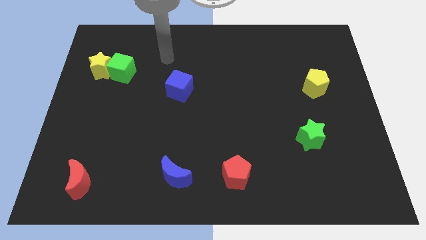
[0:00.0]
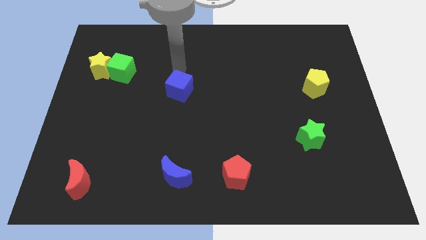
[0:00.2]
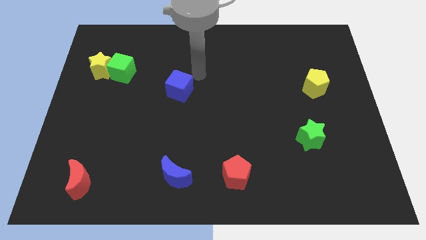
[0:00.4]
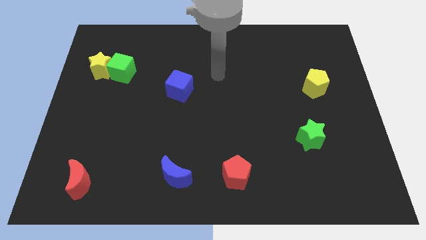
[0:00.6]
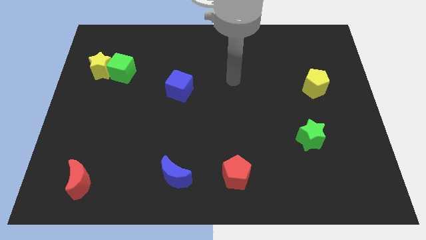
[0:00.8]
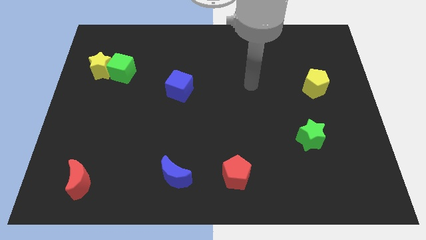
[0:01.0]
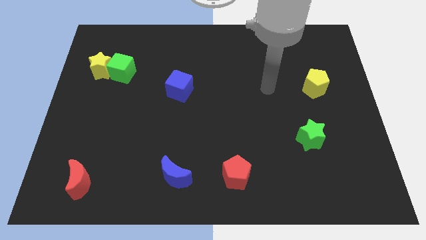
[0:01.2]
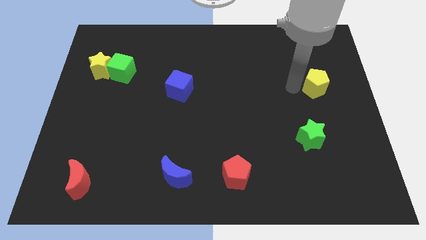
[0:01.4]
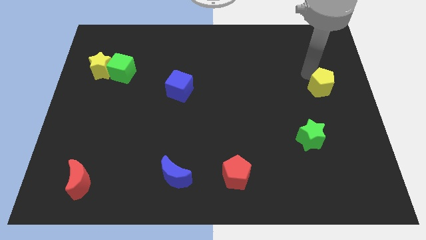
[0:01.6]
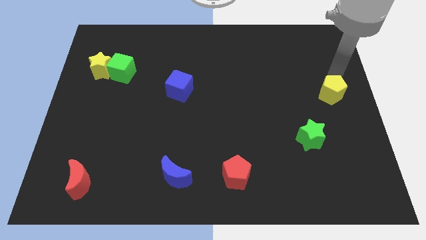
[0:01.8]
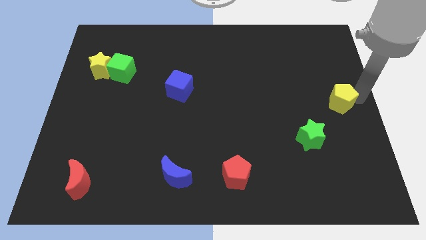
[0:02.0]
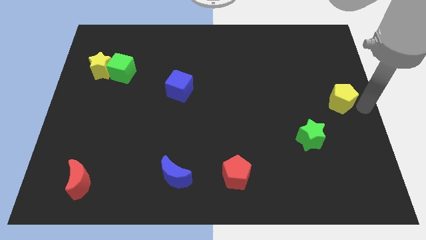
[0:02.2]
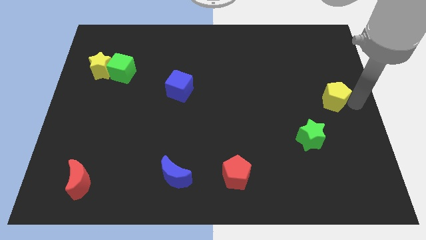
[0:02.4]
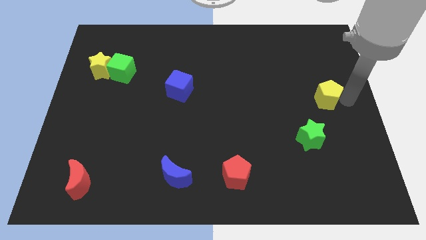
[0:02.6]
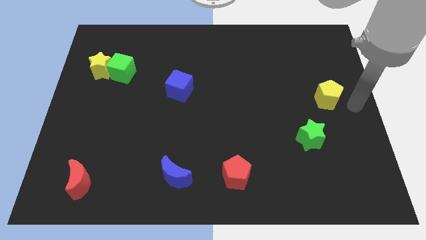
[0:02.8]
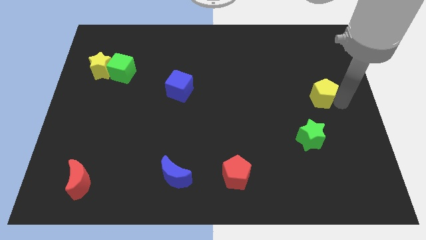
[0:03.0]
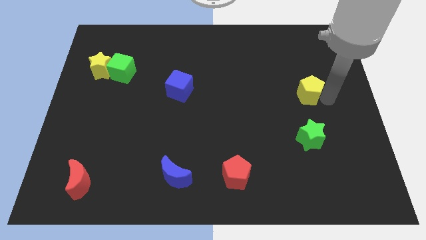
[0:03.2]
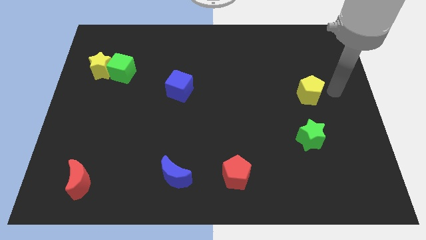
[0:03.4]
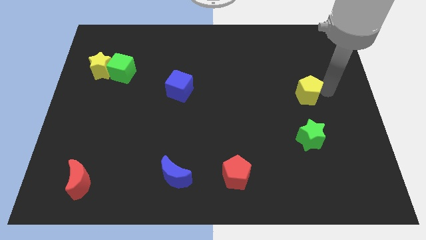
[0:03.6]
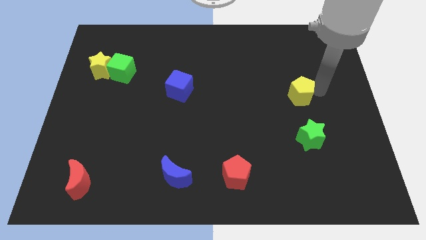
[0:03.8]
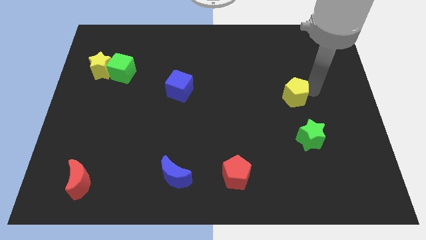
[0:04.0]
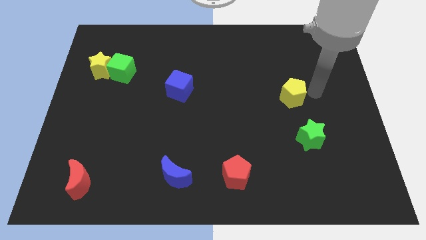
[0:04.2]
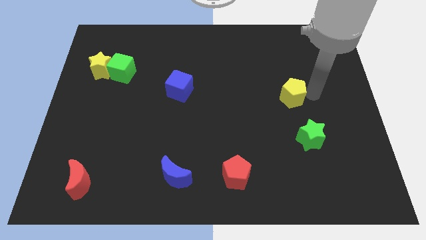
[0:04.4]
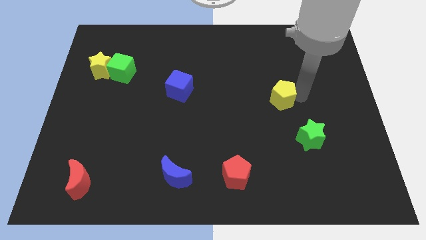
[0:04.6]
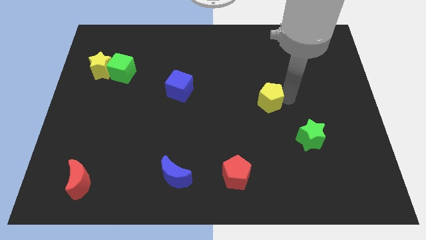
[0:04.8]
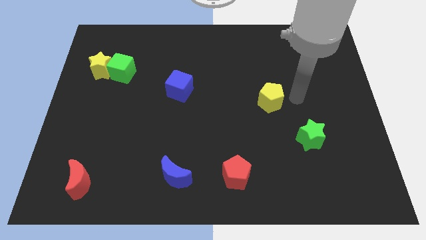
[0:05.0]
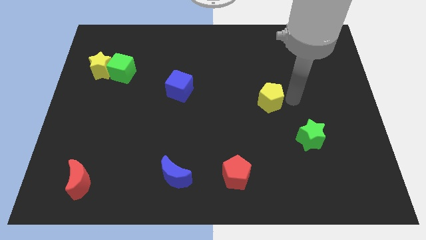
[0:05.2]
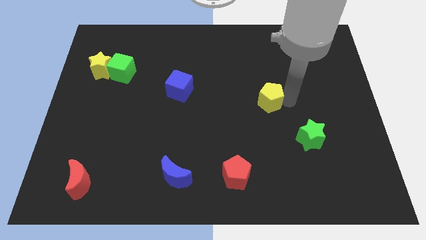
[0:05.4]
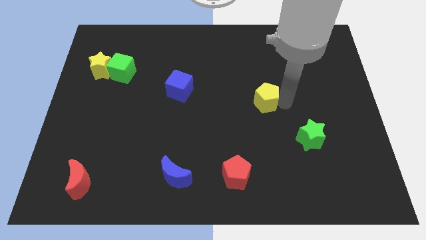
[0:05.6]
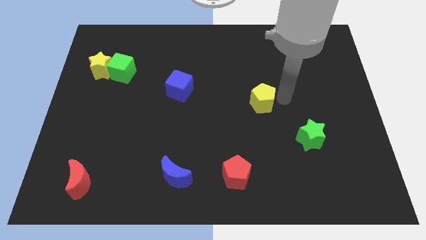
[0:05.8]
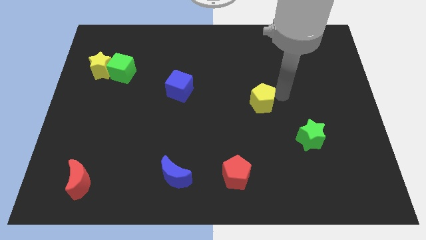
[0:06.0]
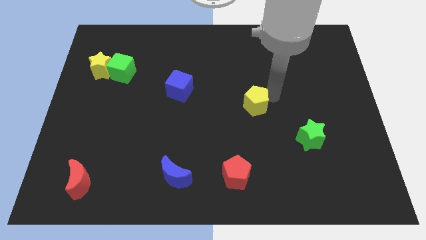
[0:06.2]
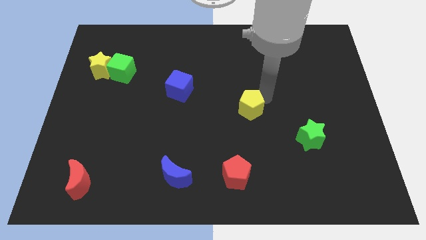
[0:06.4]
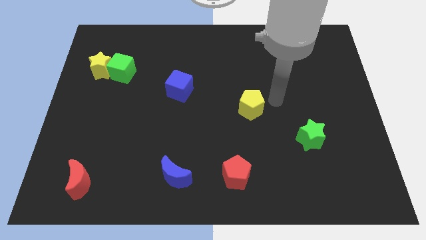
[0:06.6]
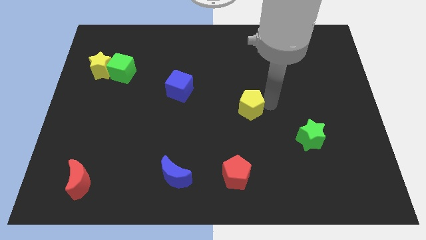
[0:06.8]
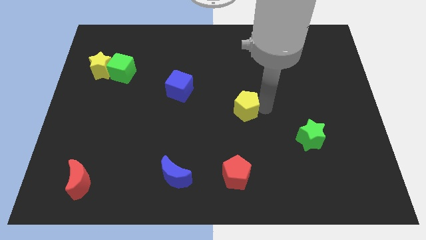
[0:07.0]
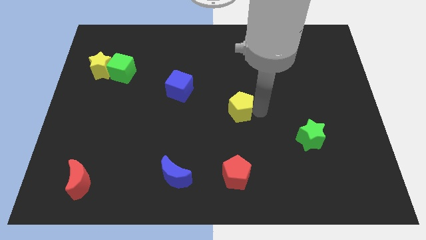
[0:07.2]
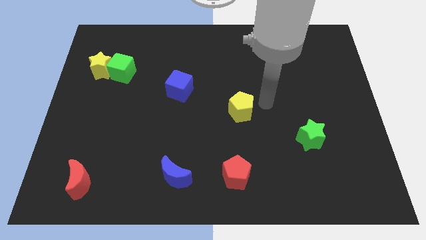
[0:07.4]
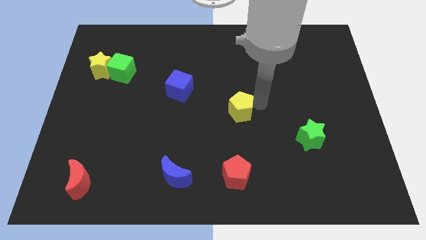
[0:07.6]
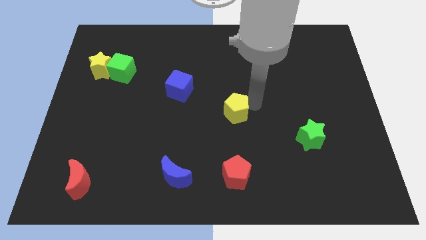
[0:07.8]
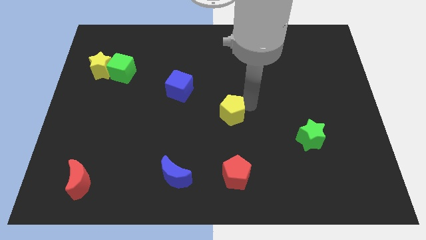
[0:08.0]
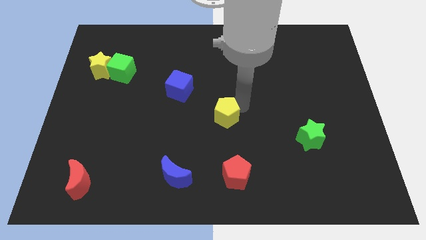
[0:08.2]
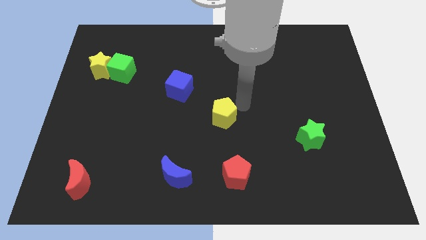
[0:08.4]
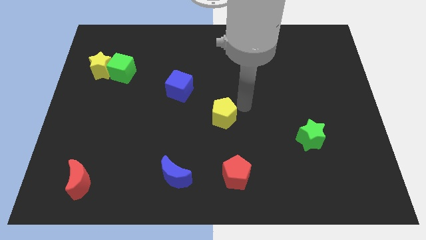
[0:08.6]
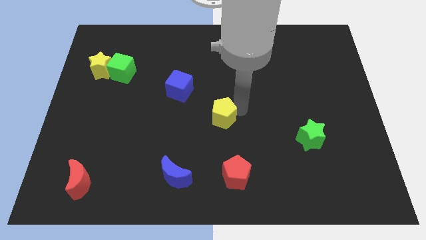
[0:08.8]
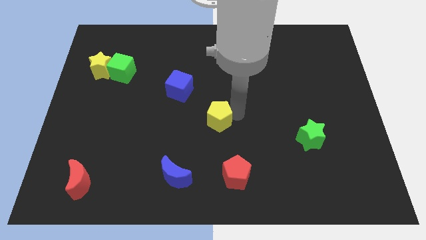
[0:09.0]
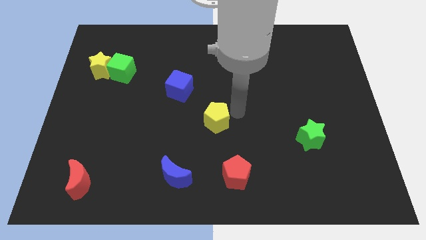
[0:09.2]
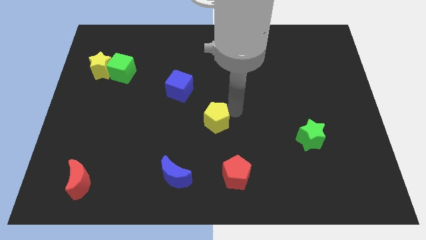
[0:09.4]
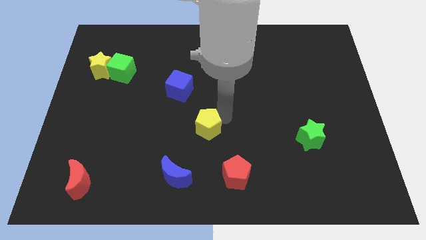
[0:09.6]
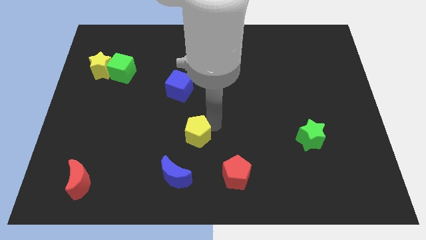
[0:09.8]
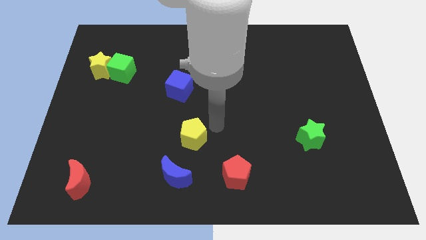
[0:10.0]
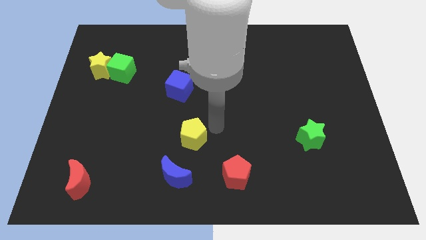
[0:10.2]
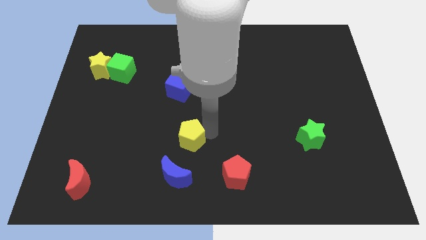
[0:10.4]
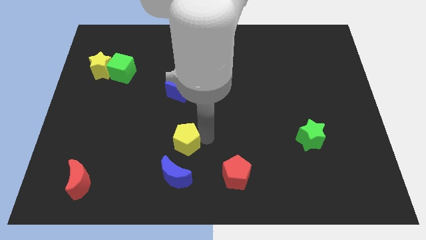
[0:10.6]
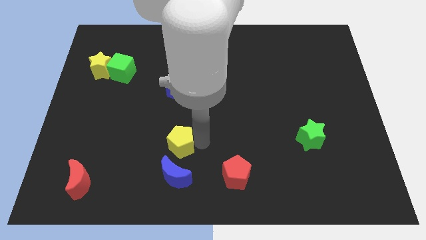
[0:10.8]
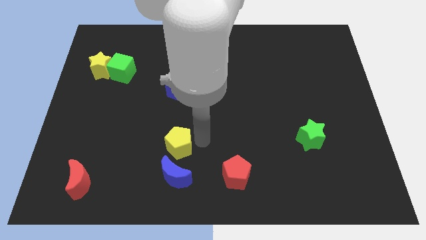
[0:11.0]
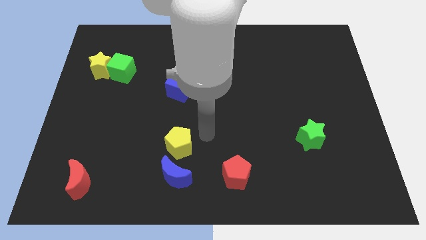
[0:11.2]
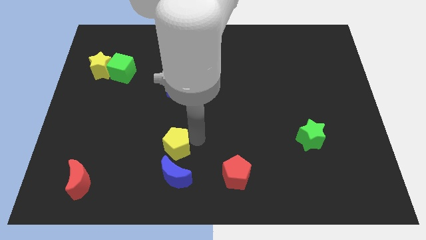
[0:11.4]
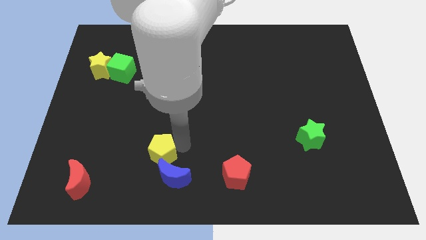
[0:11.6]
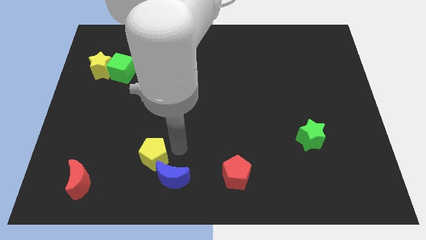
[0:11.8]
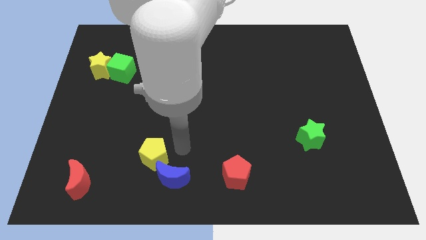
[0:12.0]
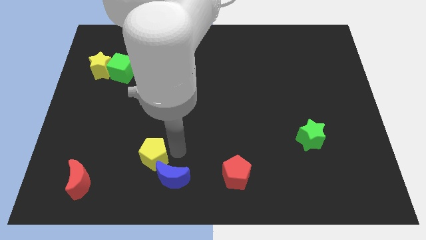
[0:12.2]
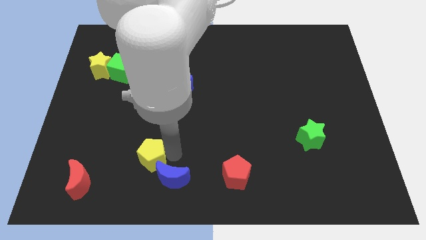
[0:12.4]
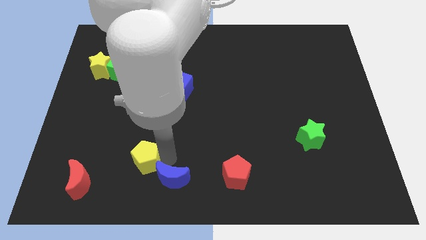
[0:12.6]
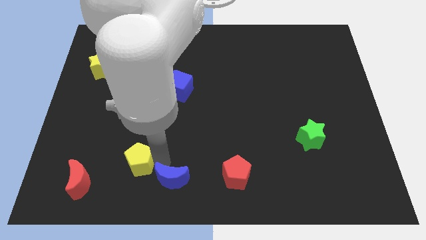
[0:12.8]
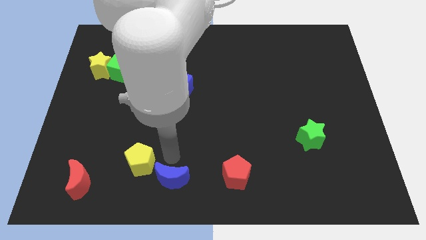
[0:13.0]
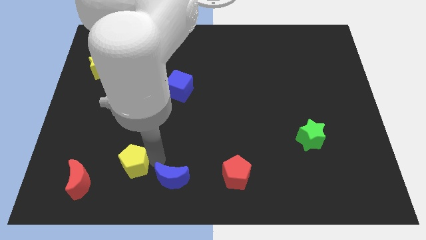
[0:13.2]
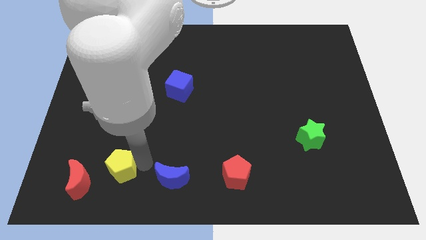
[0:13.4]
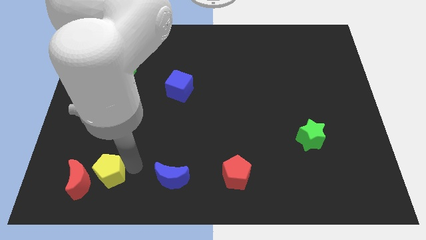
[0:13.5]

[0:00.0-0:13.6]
move the yellow pentagon next to the red moon
